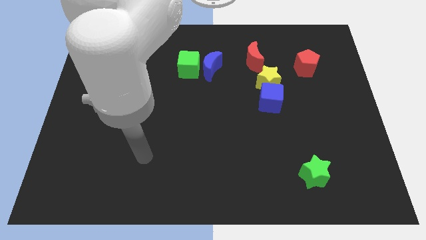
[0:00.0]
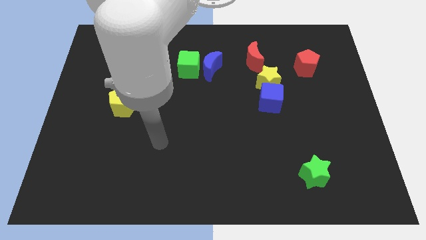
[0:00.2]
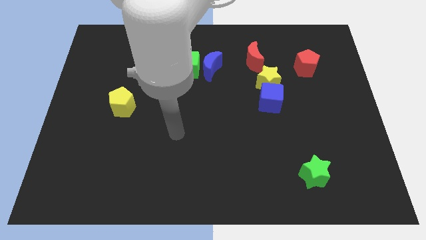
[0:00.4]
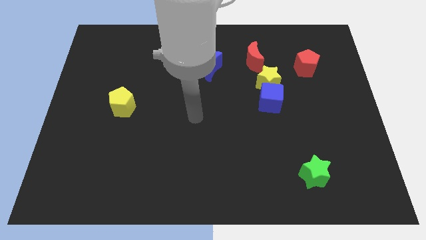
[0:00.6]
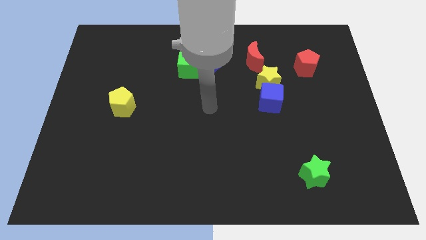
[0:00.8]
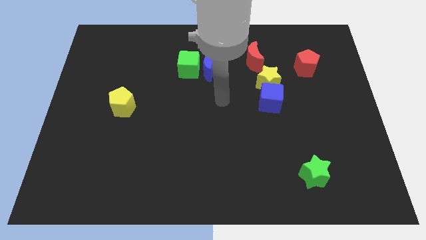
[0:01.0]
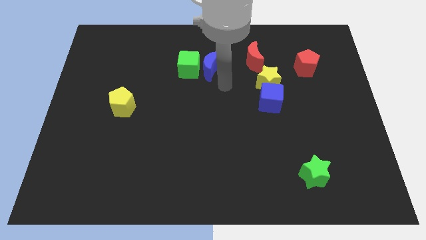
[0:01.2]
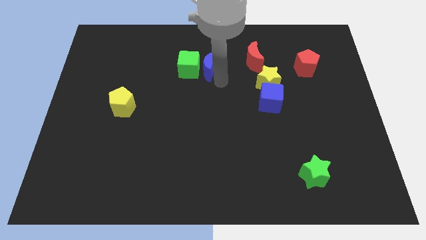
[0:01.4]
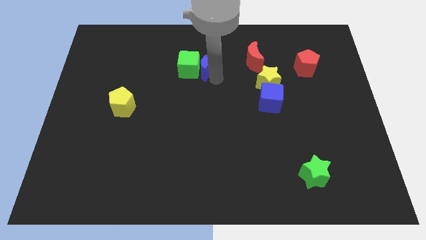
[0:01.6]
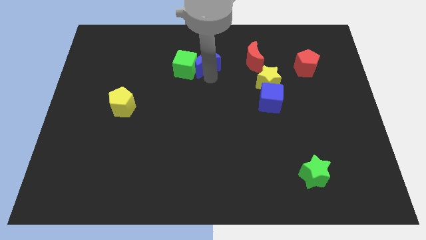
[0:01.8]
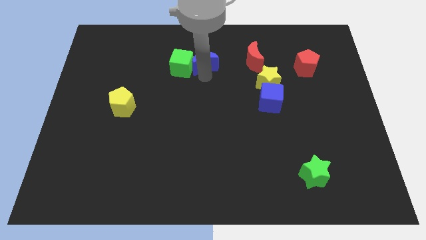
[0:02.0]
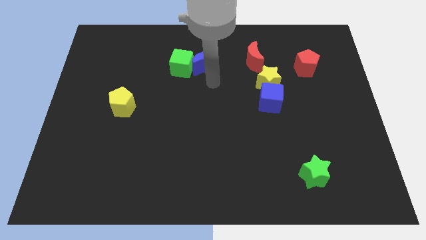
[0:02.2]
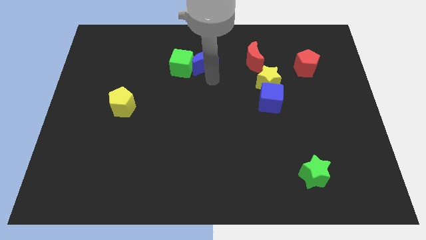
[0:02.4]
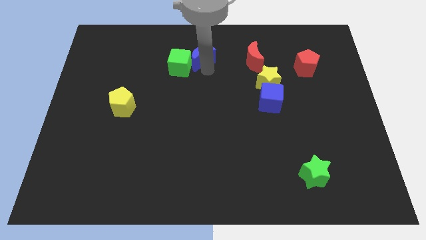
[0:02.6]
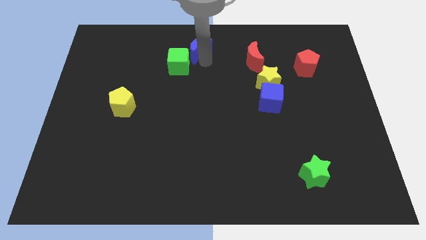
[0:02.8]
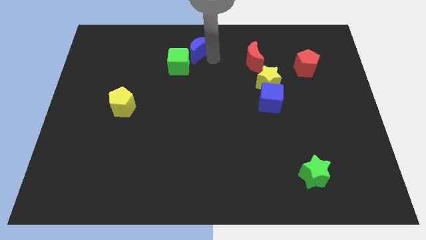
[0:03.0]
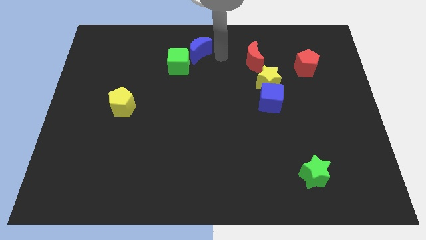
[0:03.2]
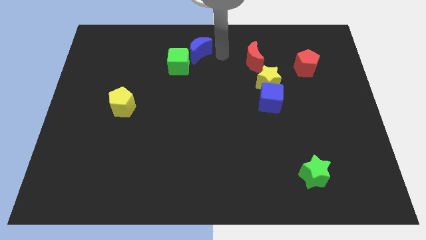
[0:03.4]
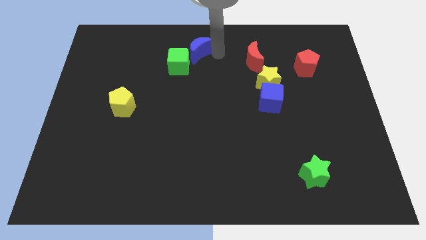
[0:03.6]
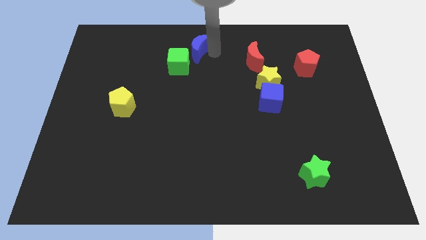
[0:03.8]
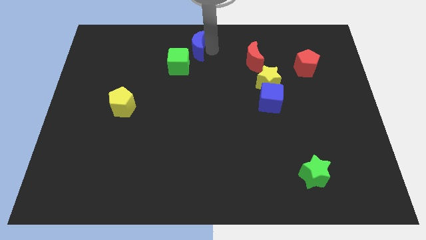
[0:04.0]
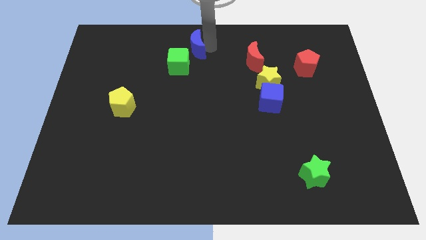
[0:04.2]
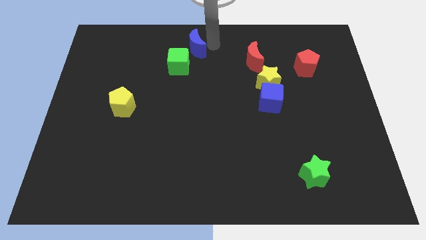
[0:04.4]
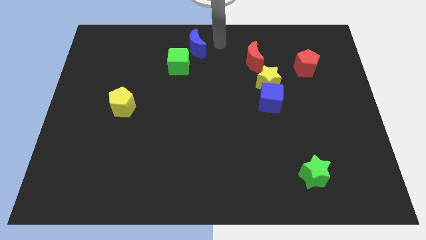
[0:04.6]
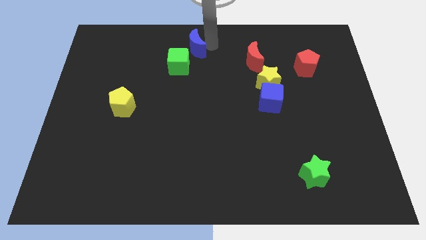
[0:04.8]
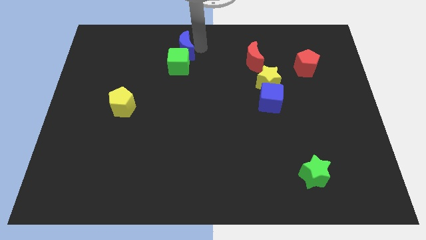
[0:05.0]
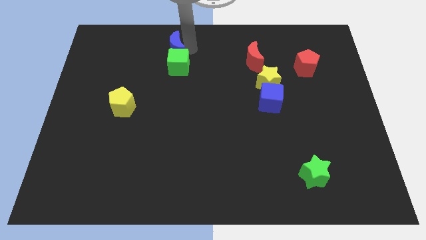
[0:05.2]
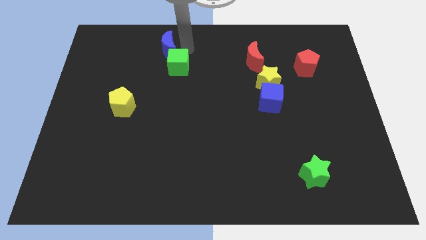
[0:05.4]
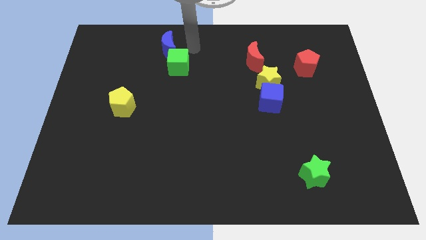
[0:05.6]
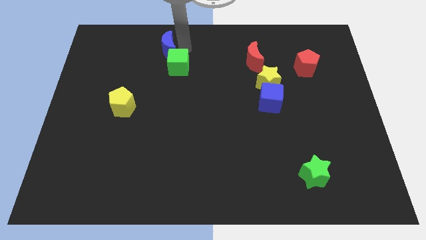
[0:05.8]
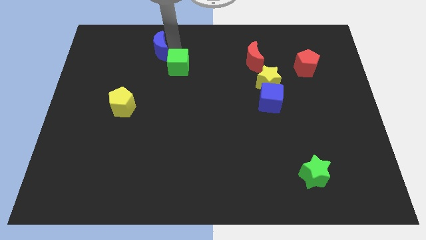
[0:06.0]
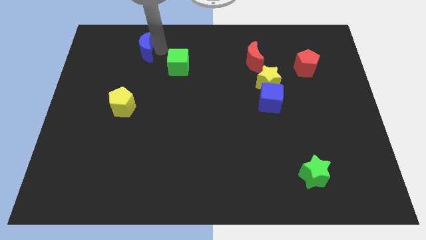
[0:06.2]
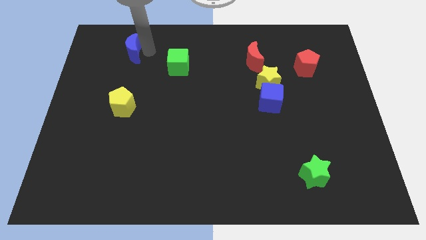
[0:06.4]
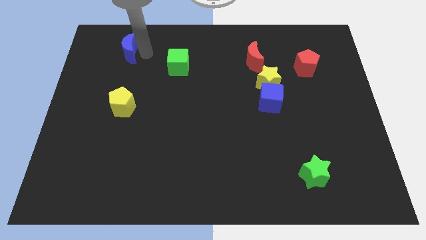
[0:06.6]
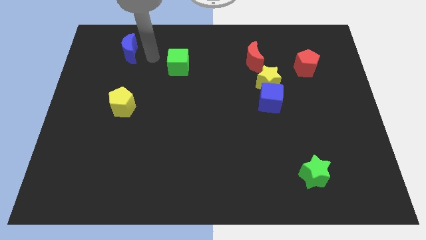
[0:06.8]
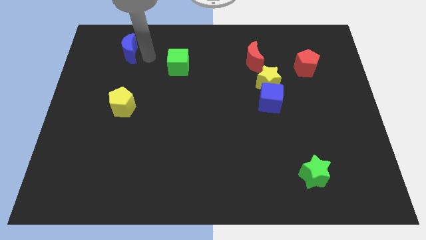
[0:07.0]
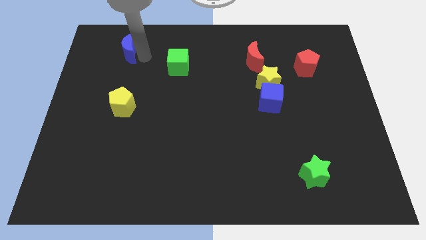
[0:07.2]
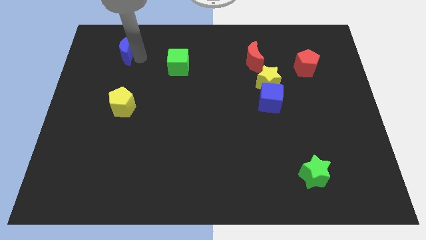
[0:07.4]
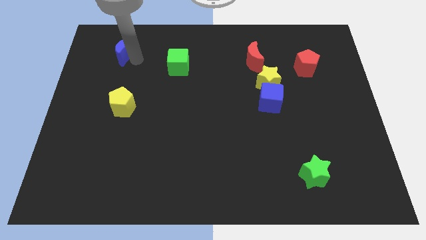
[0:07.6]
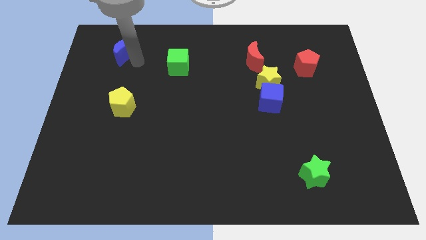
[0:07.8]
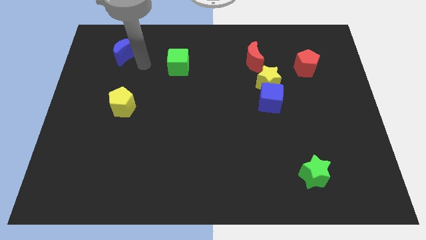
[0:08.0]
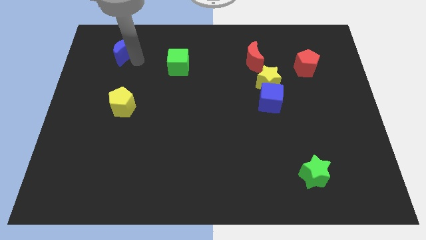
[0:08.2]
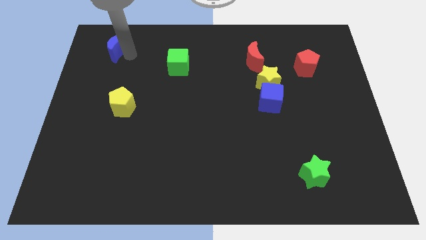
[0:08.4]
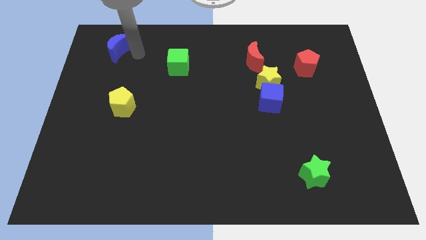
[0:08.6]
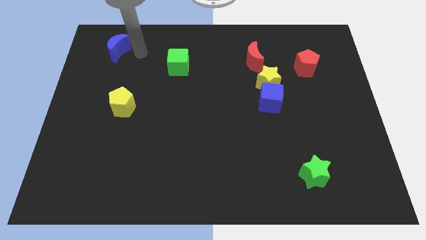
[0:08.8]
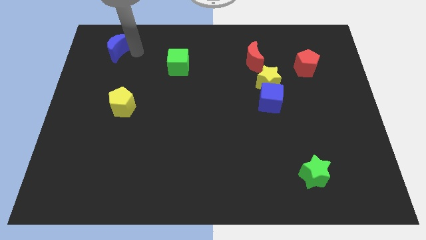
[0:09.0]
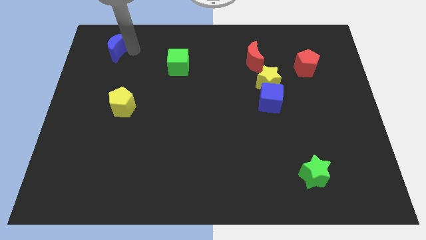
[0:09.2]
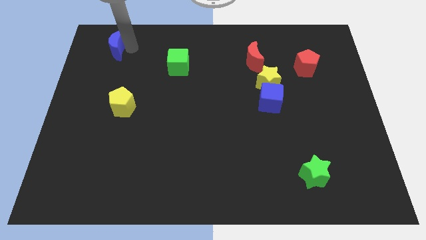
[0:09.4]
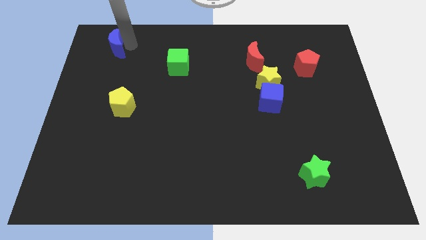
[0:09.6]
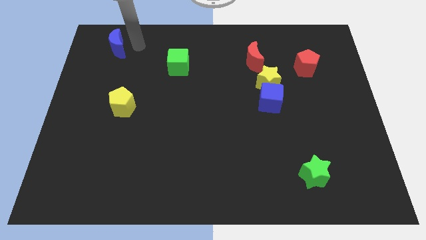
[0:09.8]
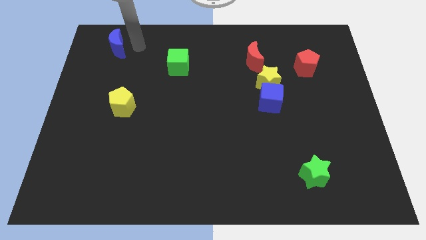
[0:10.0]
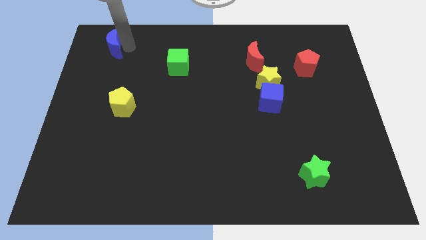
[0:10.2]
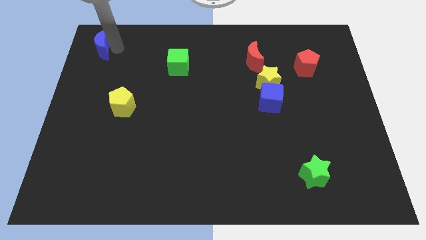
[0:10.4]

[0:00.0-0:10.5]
push the blue moon to the top left corner

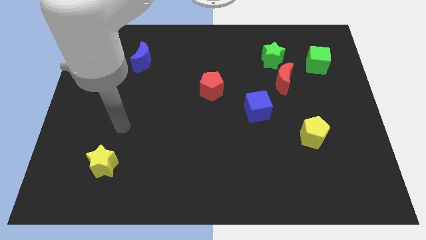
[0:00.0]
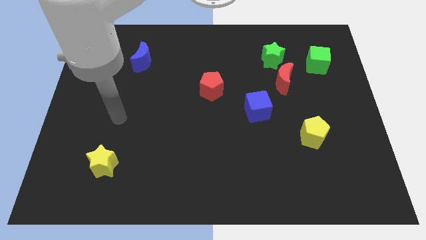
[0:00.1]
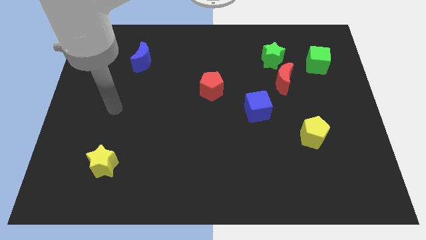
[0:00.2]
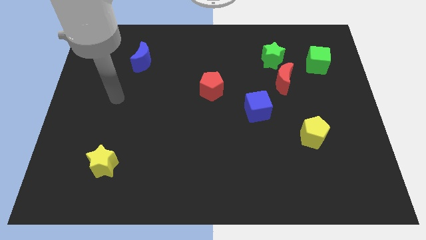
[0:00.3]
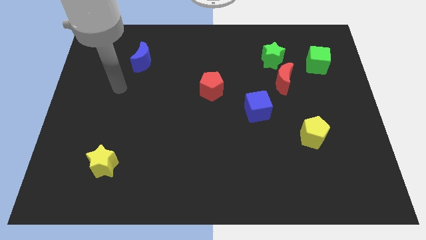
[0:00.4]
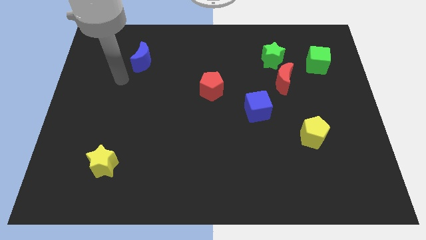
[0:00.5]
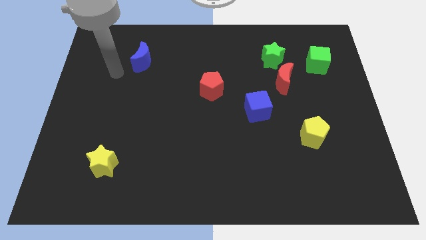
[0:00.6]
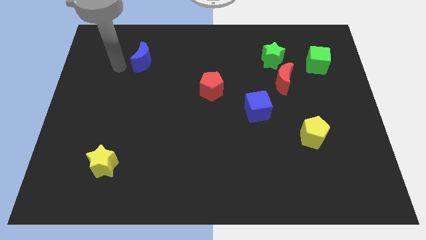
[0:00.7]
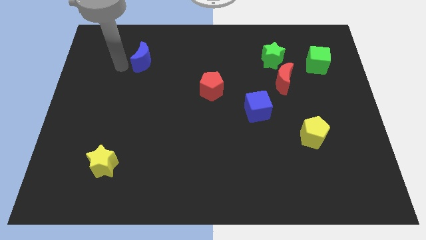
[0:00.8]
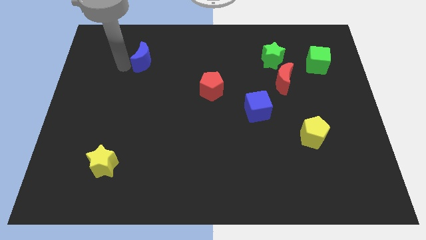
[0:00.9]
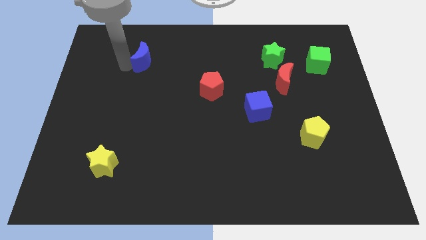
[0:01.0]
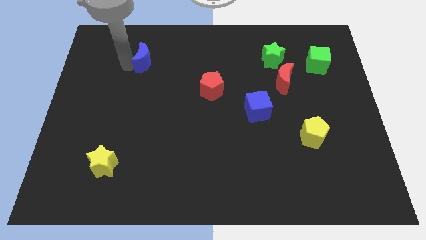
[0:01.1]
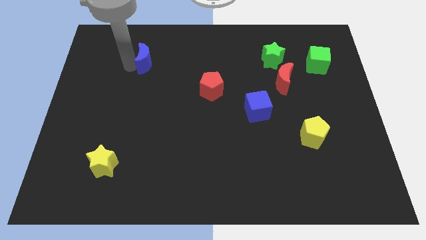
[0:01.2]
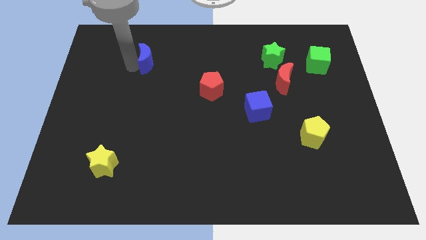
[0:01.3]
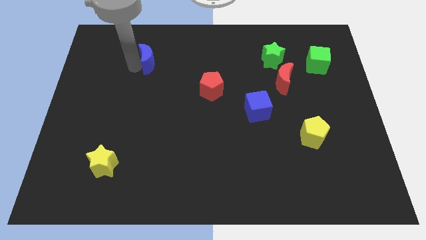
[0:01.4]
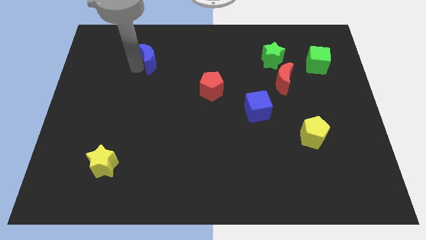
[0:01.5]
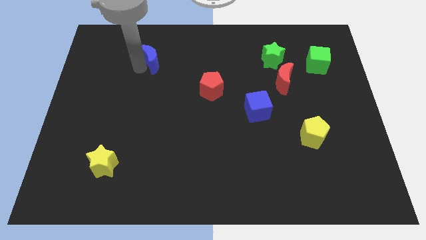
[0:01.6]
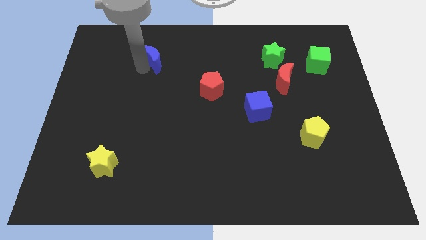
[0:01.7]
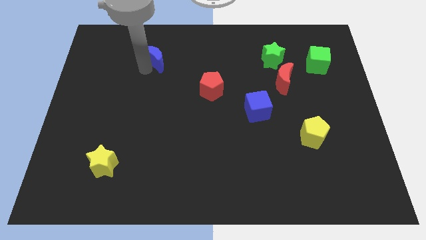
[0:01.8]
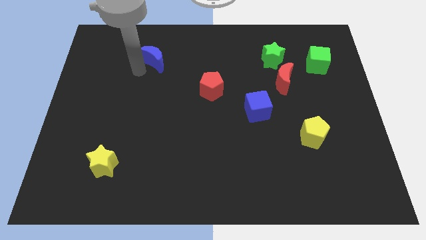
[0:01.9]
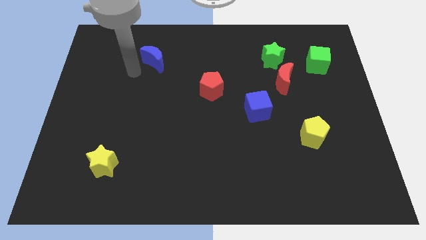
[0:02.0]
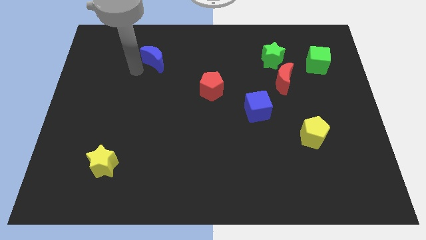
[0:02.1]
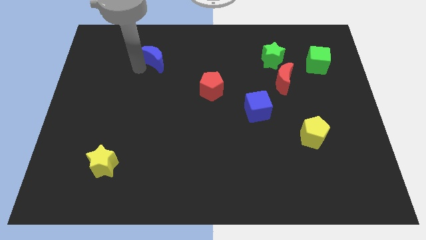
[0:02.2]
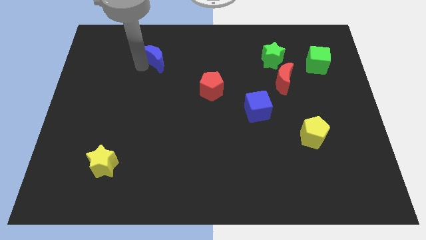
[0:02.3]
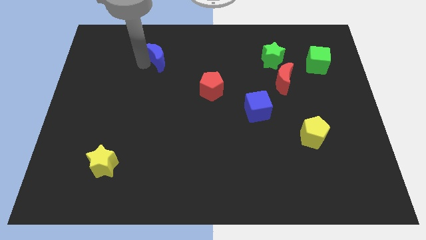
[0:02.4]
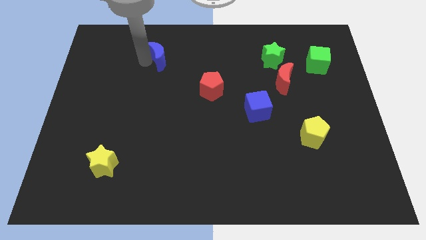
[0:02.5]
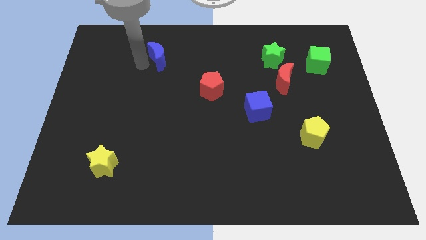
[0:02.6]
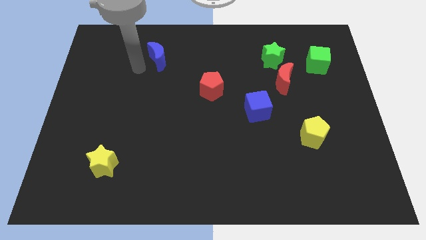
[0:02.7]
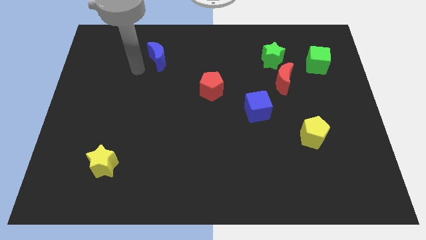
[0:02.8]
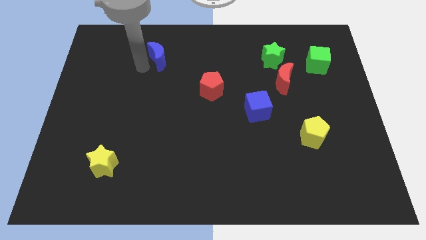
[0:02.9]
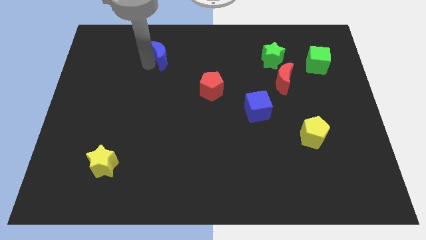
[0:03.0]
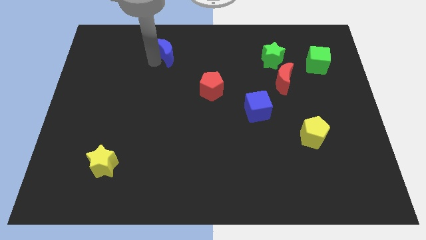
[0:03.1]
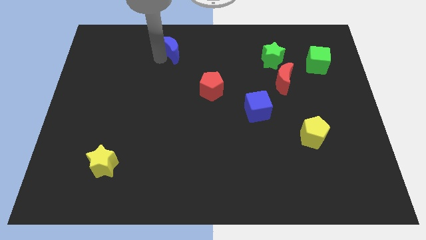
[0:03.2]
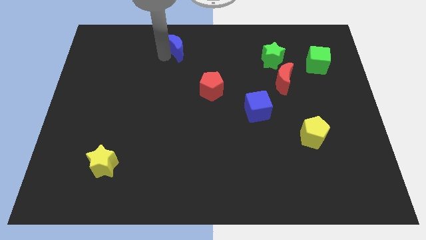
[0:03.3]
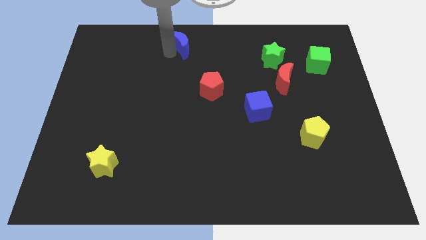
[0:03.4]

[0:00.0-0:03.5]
push the blue moon to the towards your base
